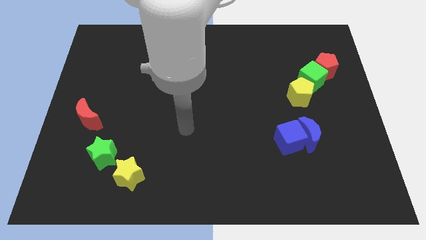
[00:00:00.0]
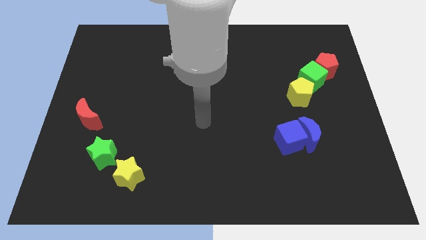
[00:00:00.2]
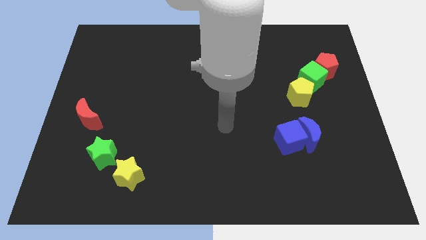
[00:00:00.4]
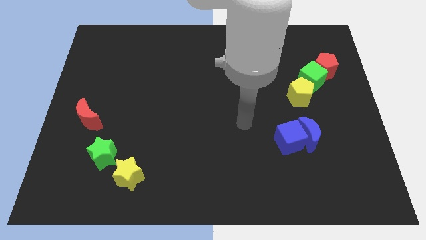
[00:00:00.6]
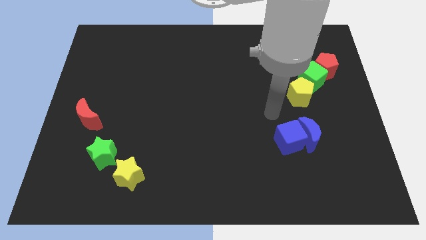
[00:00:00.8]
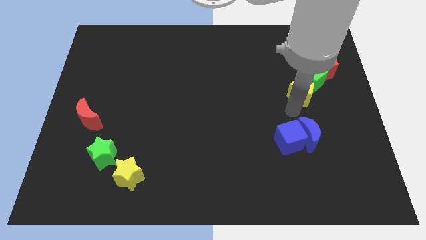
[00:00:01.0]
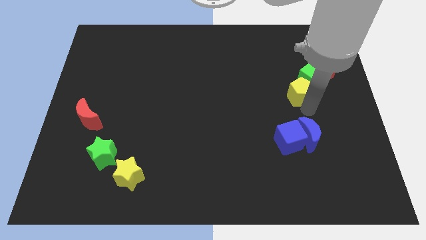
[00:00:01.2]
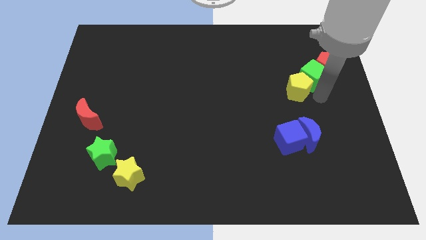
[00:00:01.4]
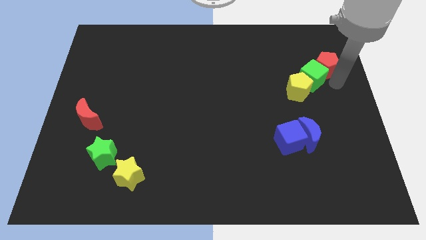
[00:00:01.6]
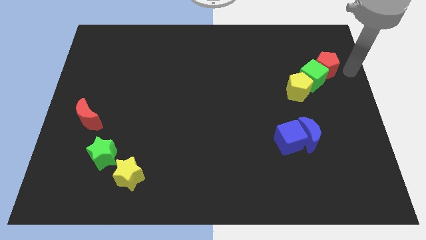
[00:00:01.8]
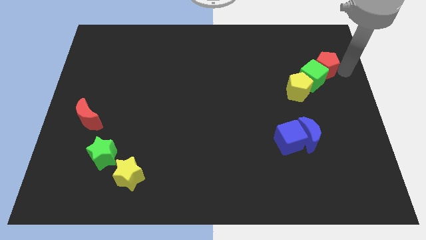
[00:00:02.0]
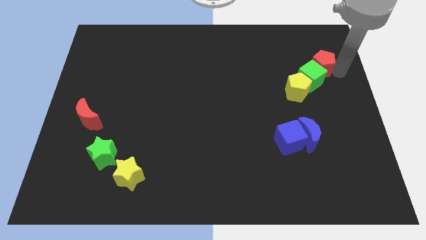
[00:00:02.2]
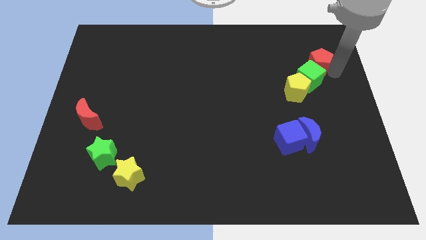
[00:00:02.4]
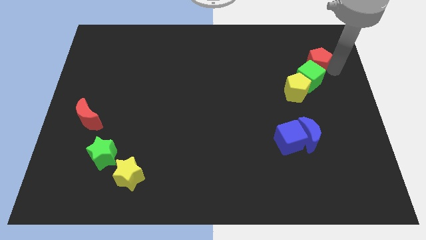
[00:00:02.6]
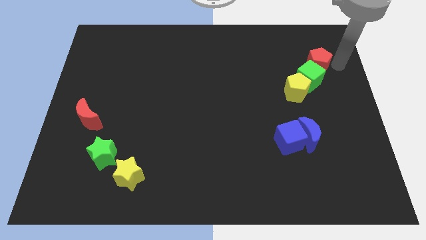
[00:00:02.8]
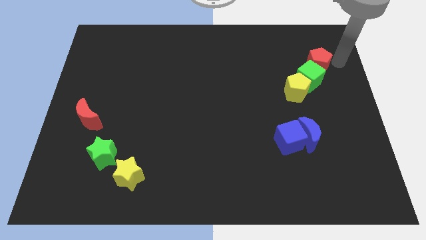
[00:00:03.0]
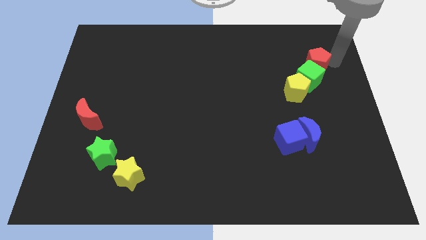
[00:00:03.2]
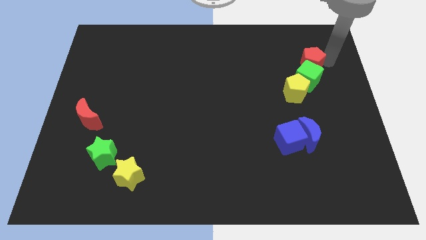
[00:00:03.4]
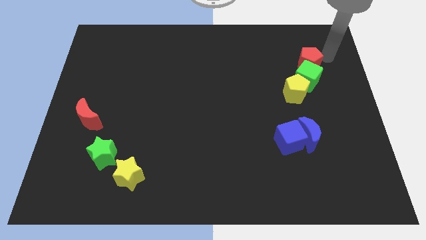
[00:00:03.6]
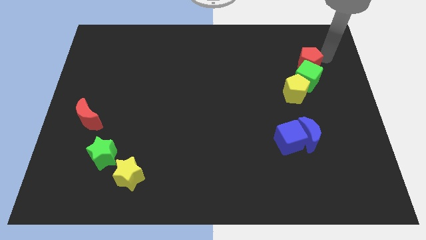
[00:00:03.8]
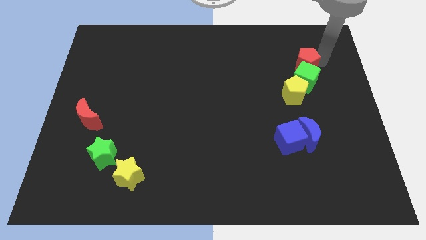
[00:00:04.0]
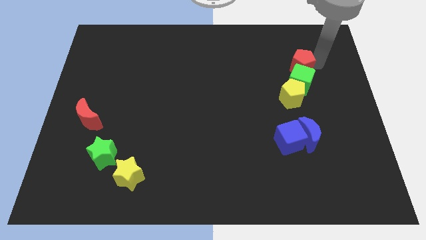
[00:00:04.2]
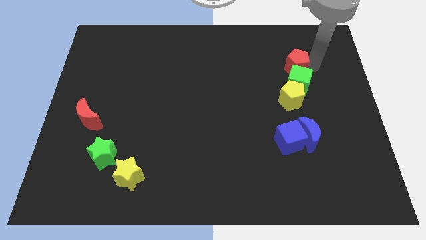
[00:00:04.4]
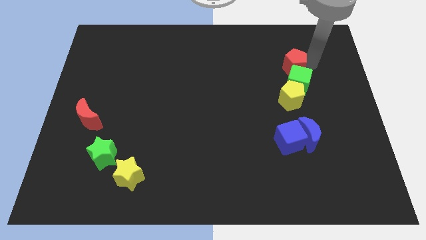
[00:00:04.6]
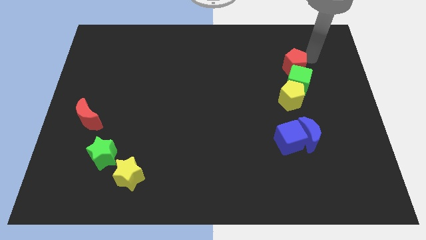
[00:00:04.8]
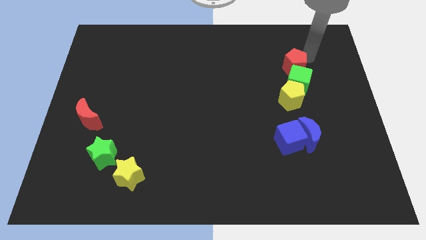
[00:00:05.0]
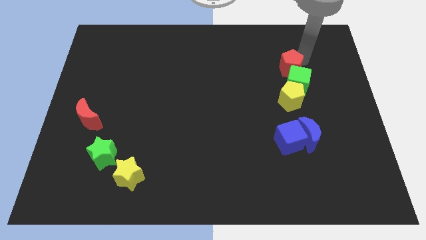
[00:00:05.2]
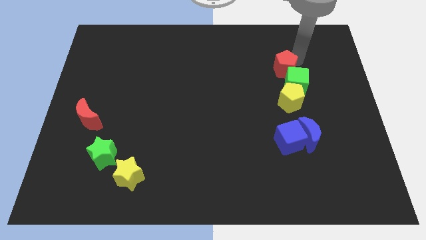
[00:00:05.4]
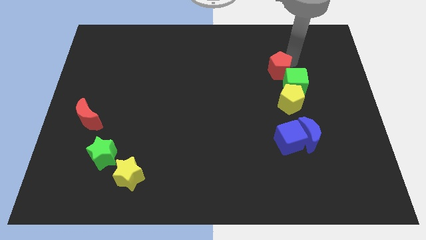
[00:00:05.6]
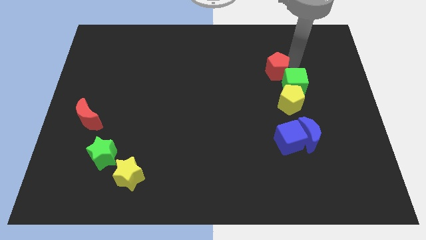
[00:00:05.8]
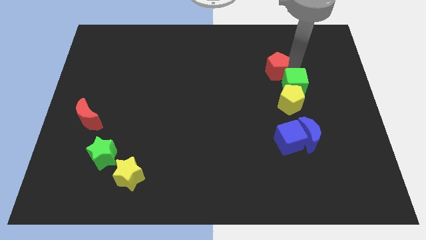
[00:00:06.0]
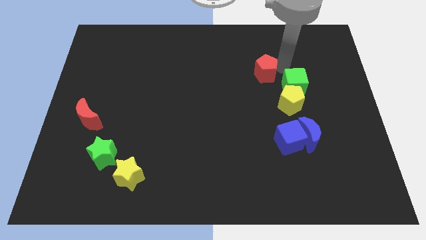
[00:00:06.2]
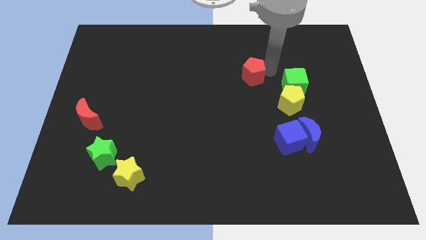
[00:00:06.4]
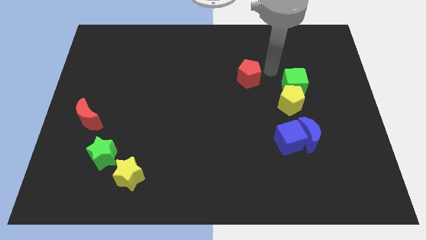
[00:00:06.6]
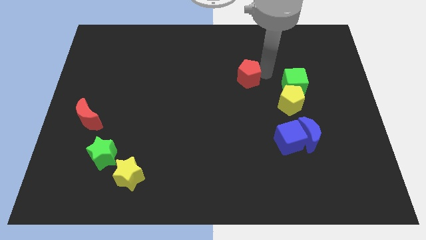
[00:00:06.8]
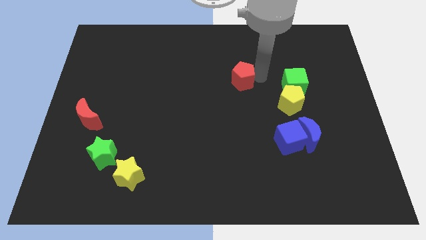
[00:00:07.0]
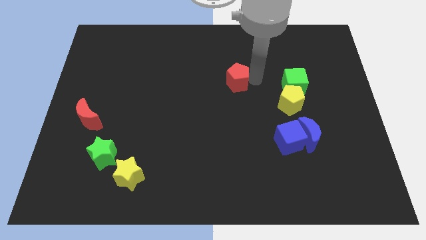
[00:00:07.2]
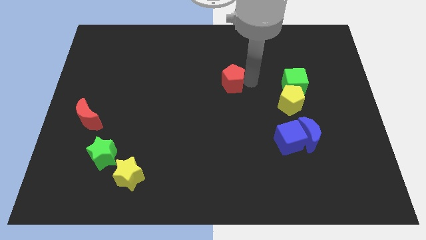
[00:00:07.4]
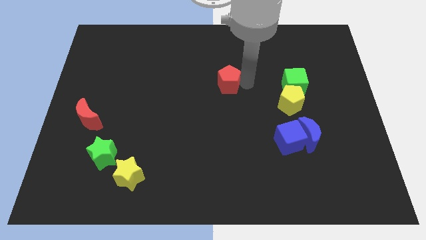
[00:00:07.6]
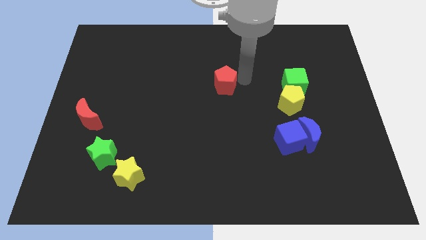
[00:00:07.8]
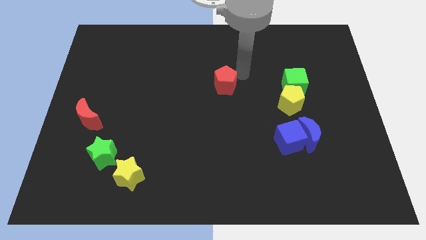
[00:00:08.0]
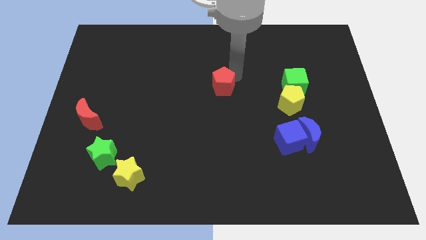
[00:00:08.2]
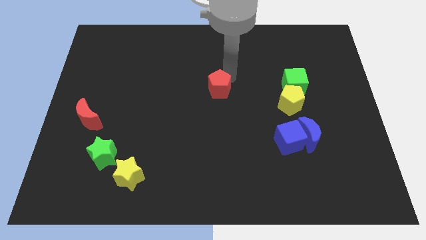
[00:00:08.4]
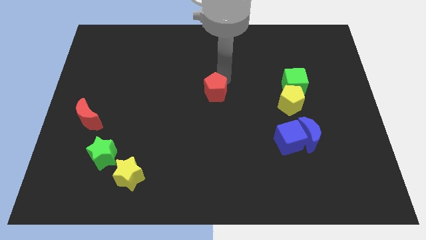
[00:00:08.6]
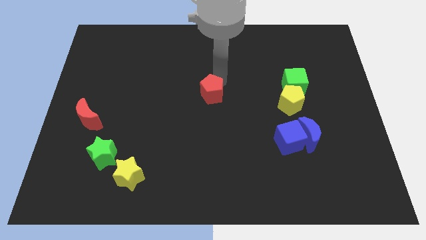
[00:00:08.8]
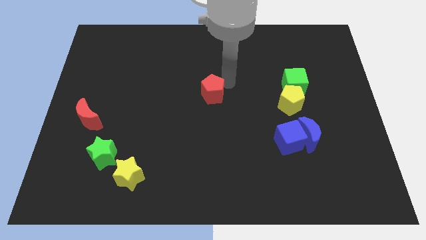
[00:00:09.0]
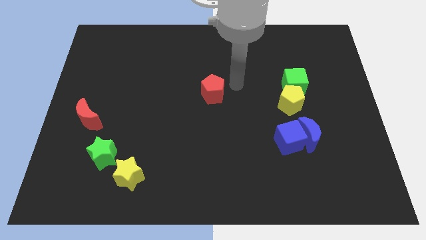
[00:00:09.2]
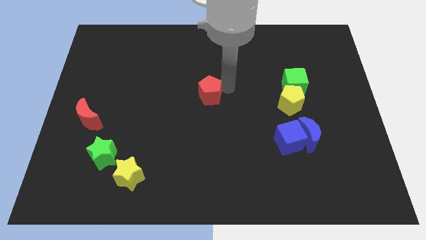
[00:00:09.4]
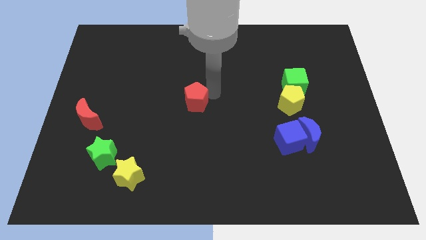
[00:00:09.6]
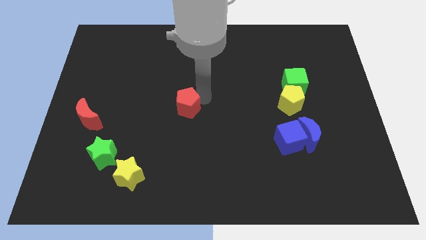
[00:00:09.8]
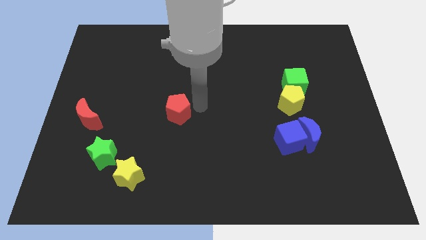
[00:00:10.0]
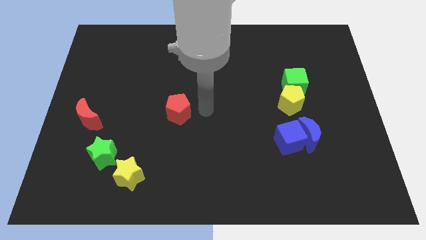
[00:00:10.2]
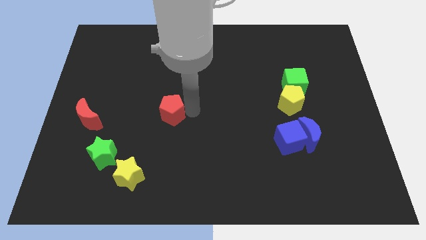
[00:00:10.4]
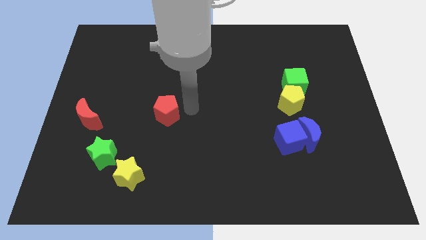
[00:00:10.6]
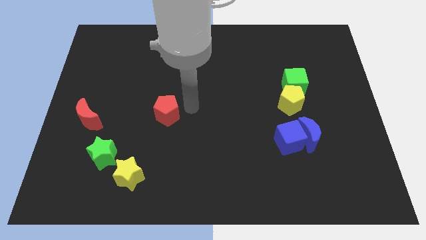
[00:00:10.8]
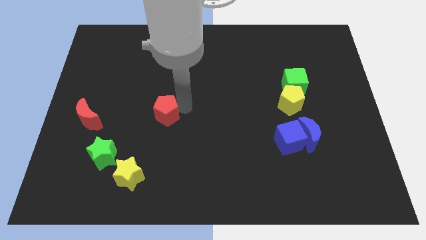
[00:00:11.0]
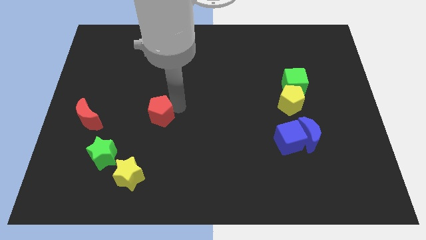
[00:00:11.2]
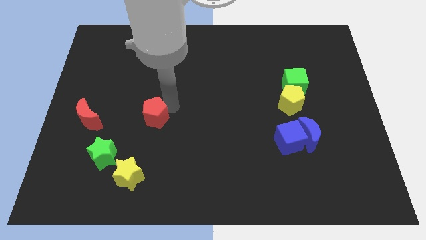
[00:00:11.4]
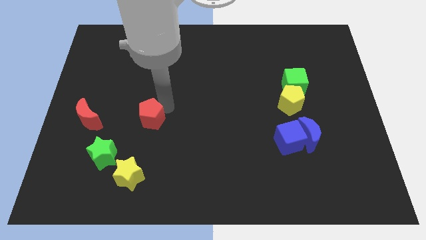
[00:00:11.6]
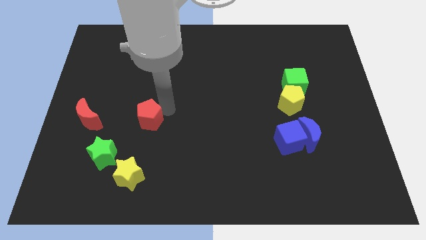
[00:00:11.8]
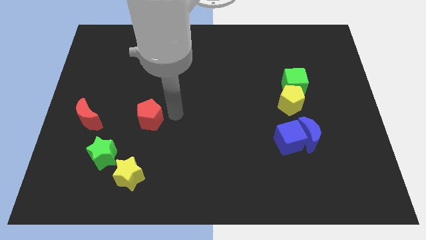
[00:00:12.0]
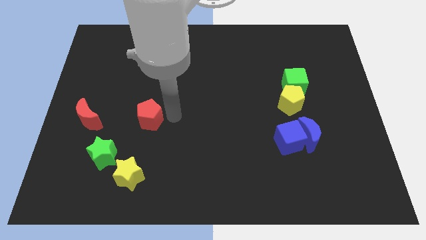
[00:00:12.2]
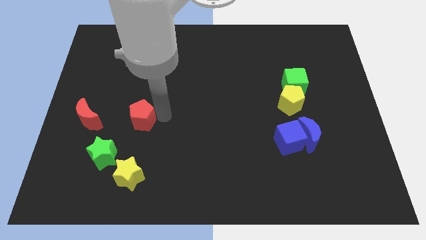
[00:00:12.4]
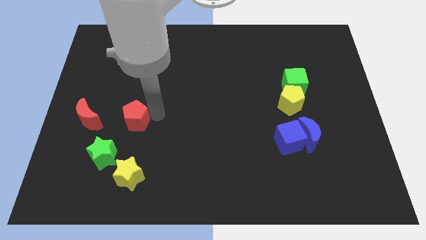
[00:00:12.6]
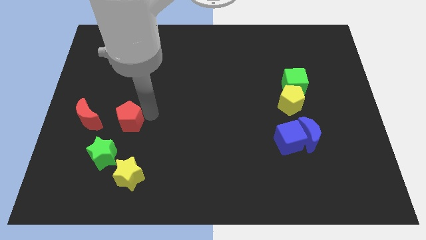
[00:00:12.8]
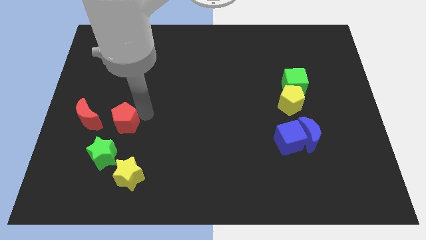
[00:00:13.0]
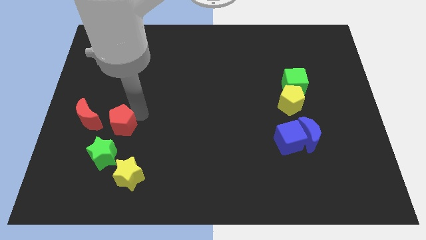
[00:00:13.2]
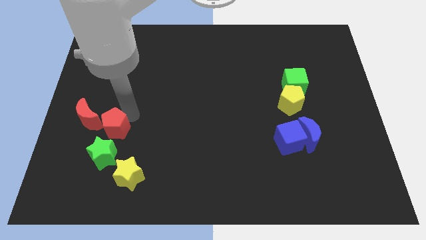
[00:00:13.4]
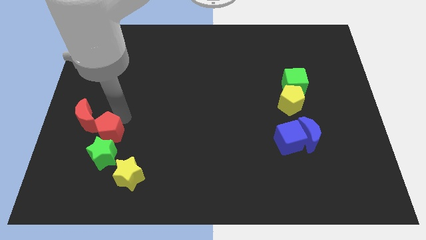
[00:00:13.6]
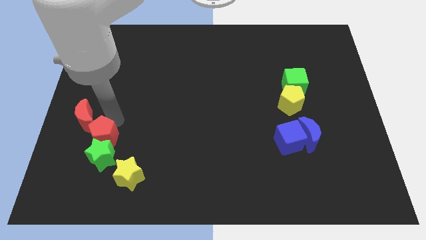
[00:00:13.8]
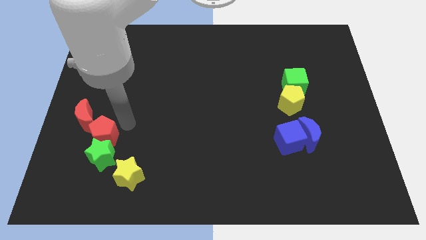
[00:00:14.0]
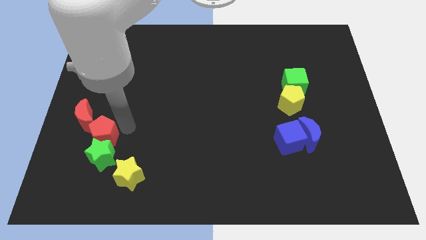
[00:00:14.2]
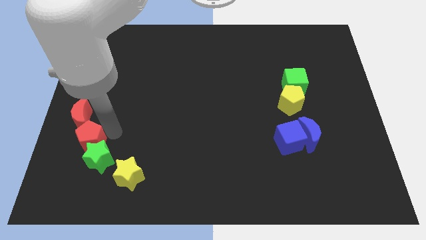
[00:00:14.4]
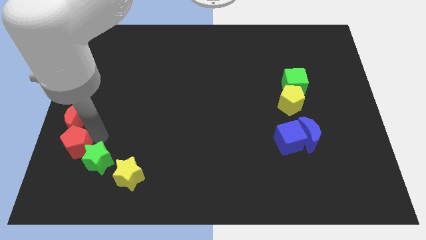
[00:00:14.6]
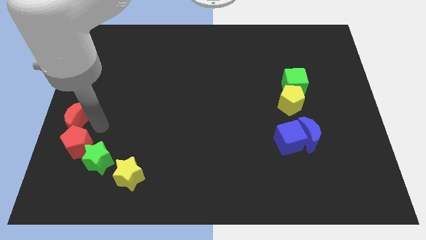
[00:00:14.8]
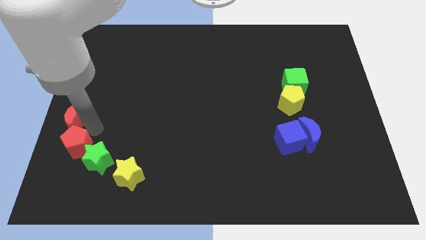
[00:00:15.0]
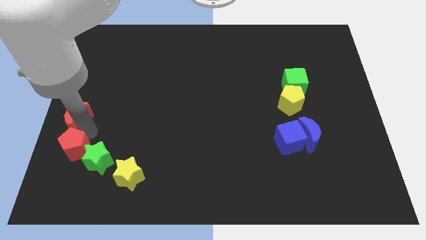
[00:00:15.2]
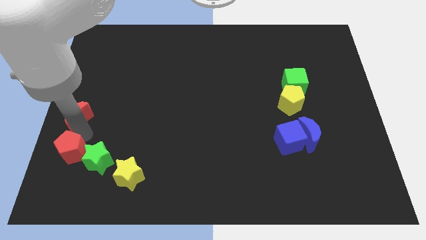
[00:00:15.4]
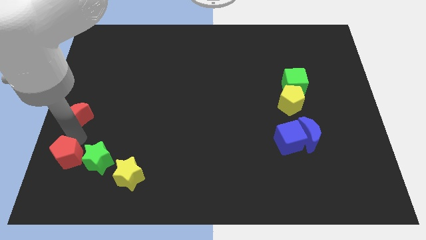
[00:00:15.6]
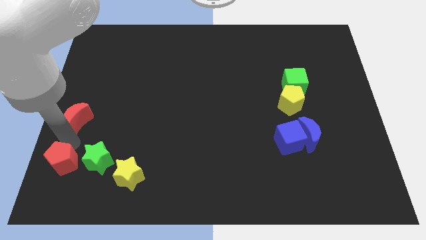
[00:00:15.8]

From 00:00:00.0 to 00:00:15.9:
move the red pentagon to the bottom left
